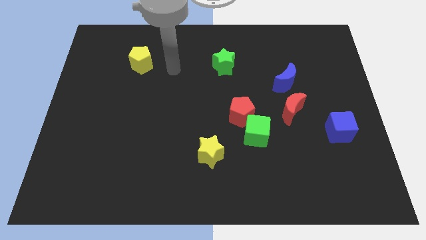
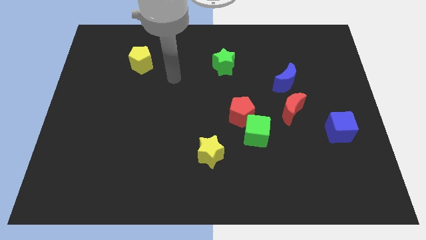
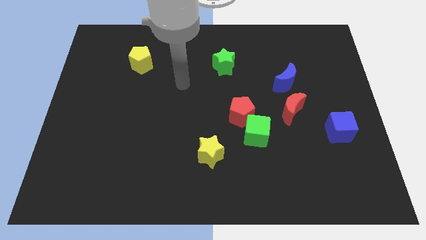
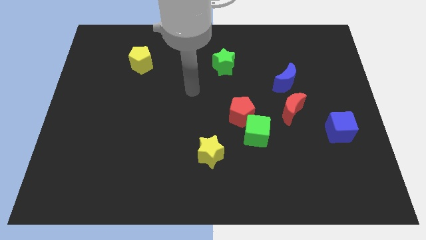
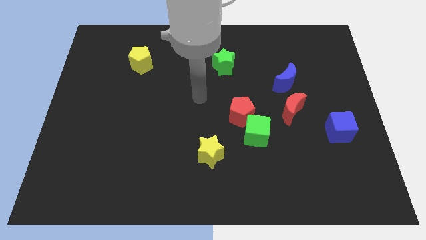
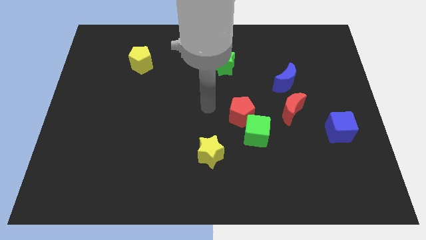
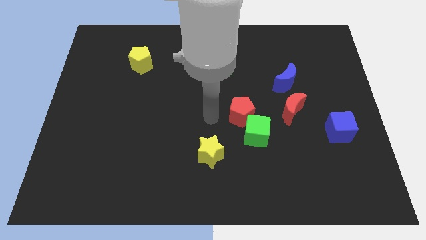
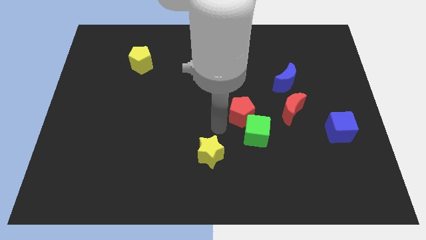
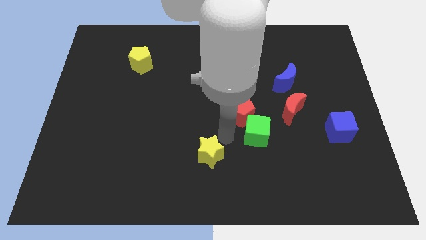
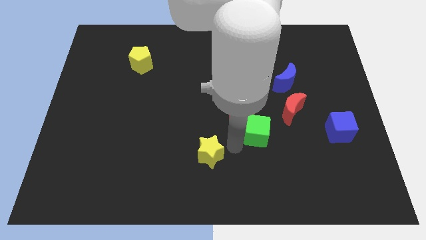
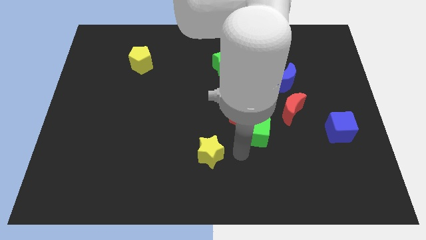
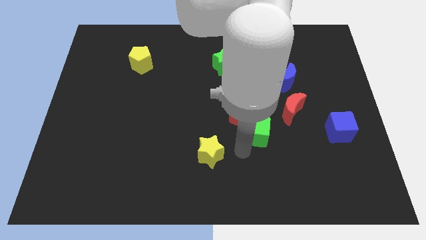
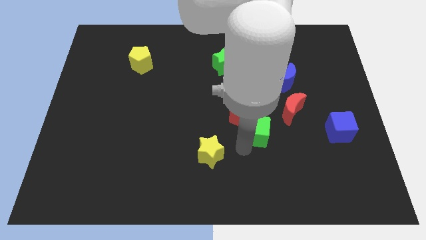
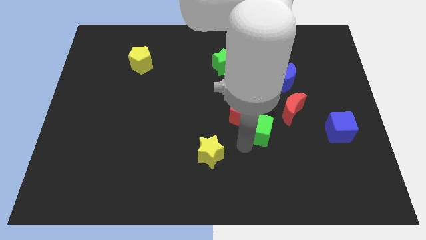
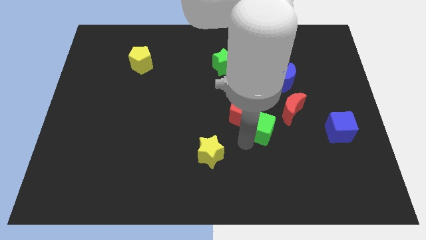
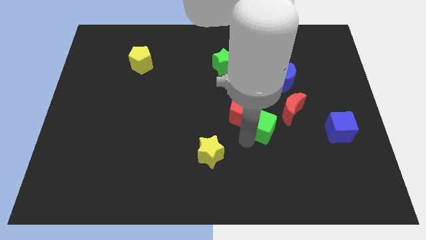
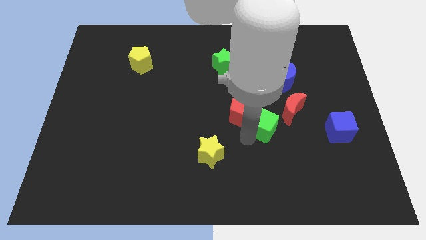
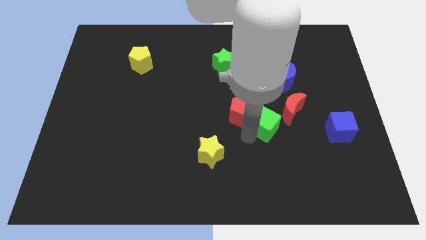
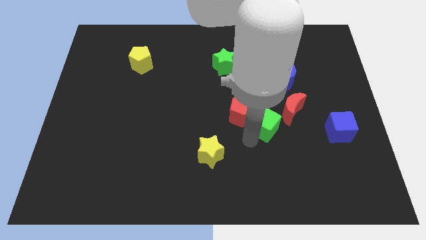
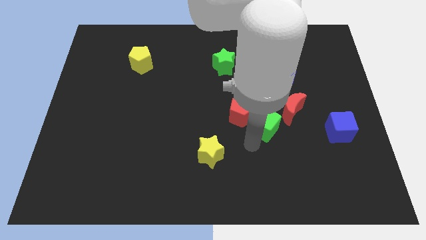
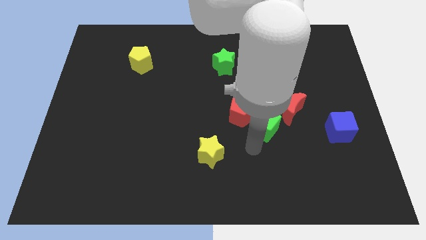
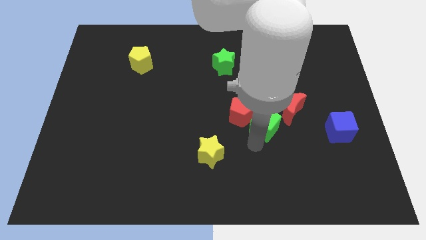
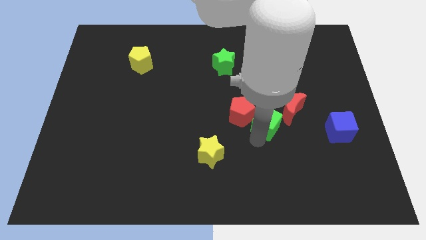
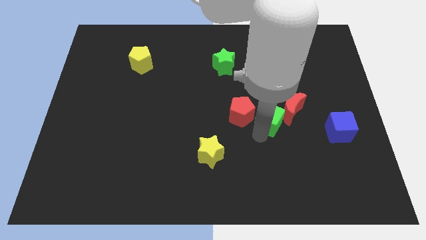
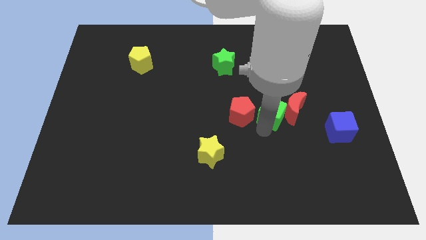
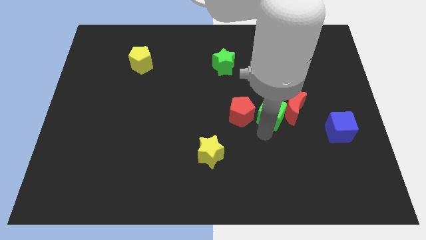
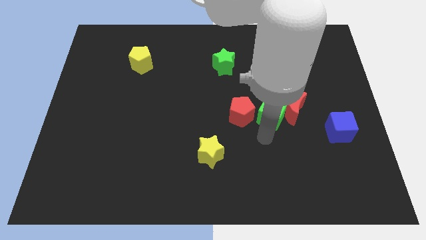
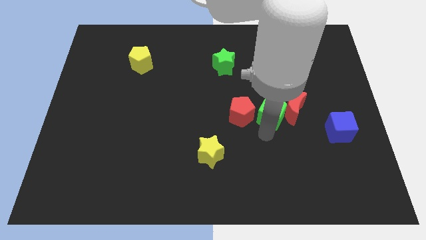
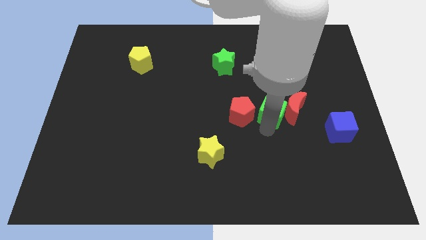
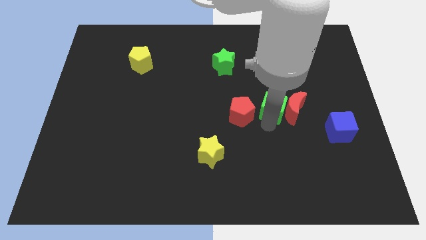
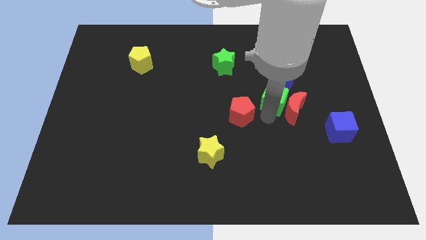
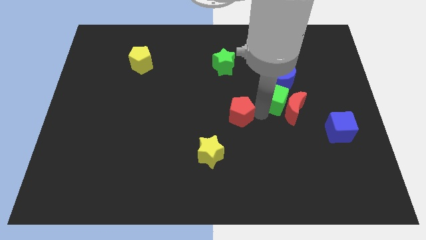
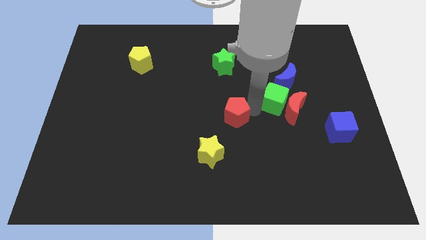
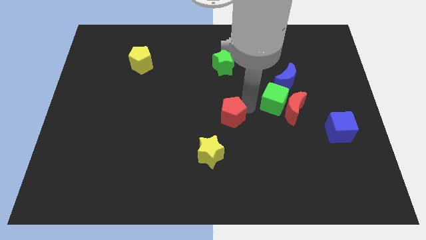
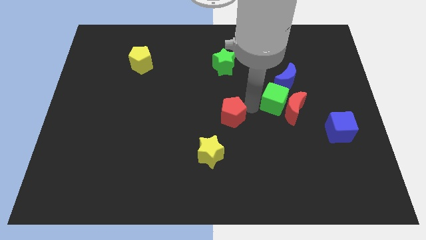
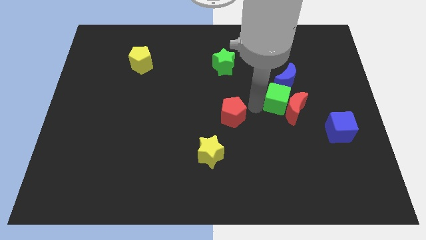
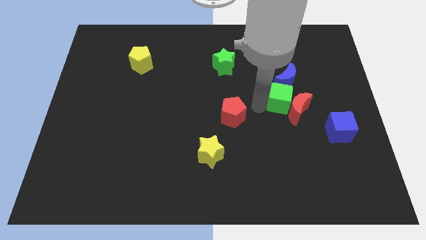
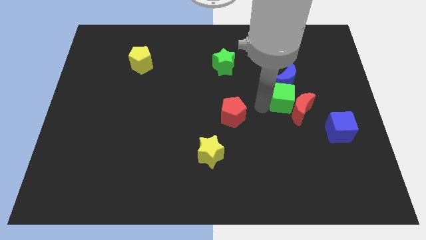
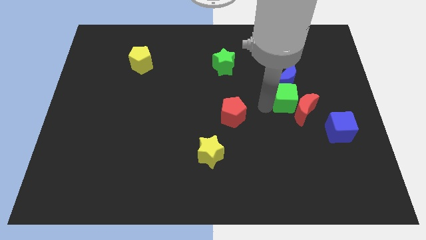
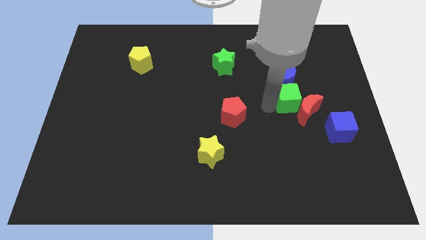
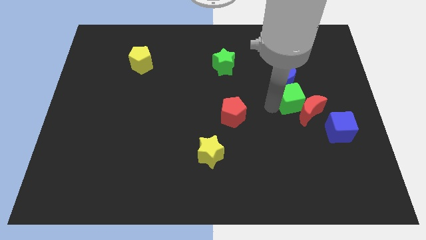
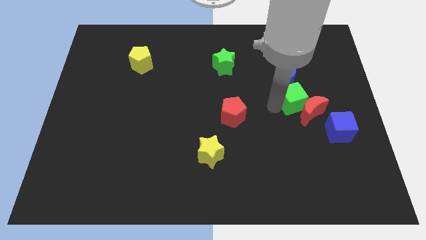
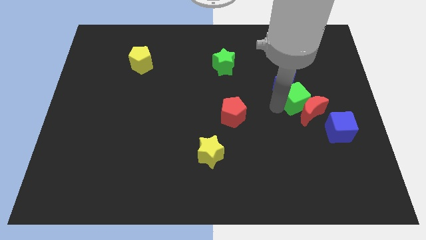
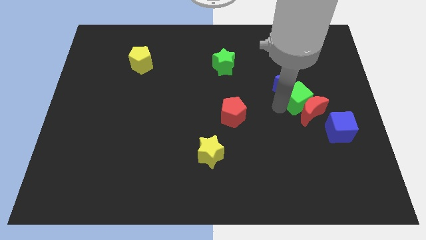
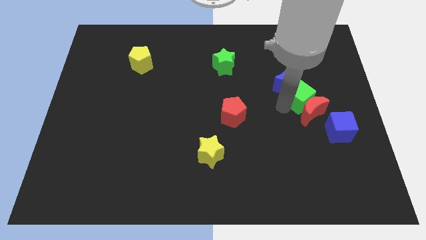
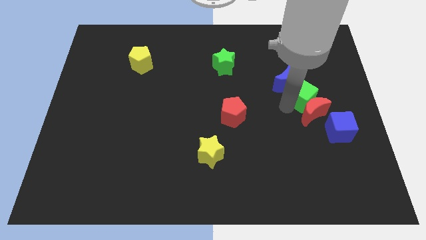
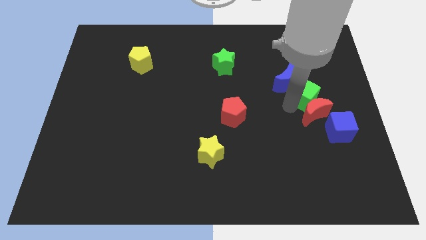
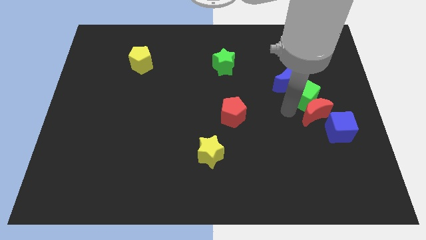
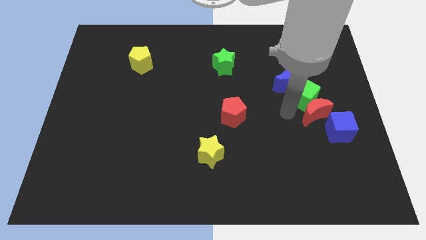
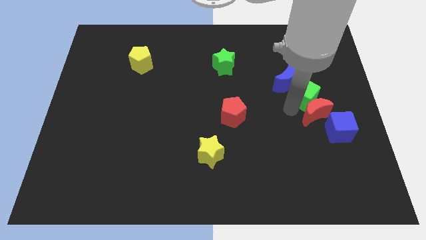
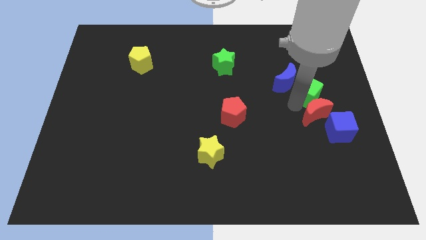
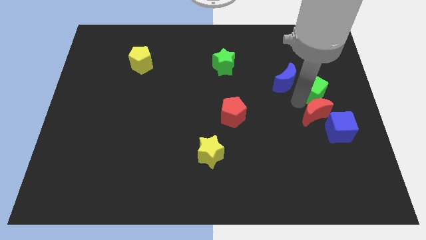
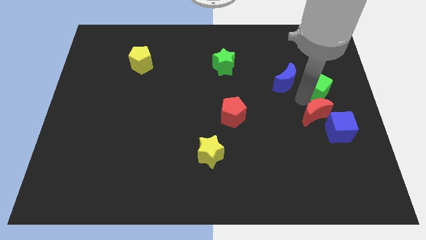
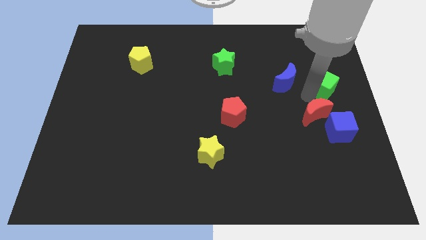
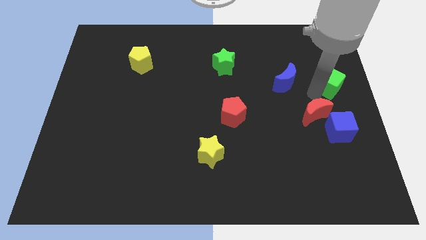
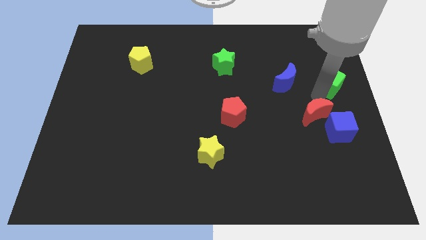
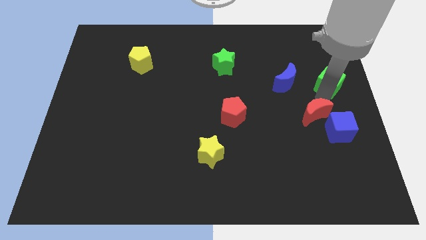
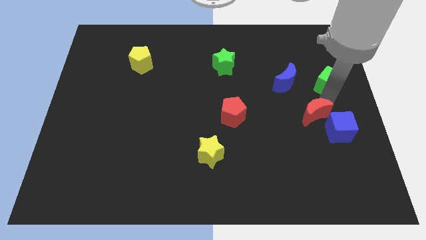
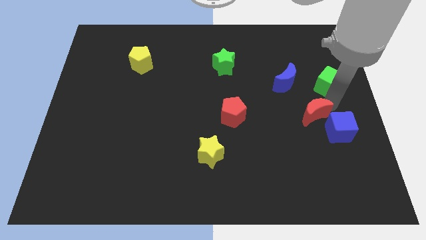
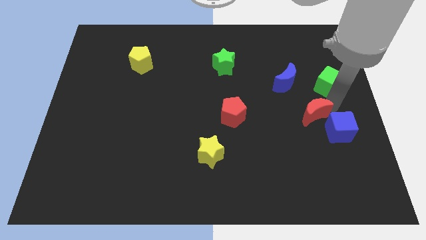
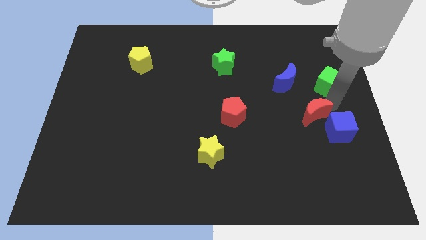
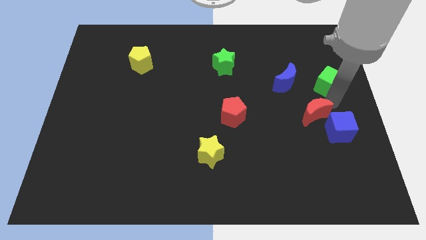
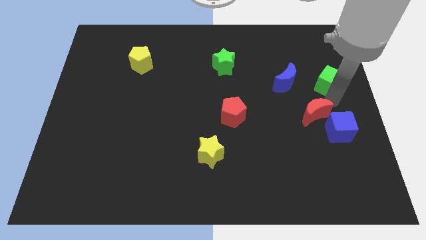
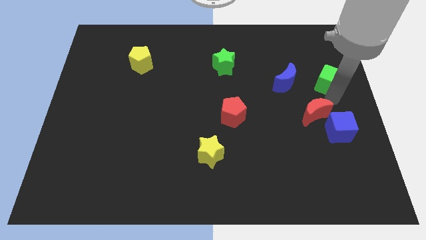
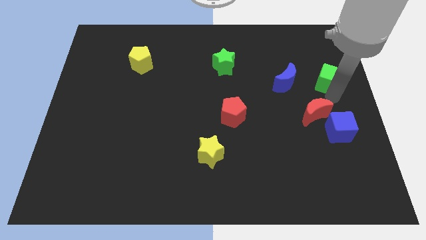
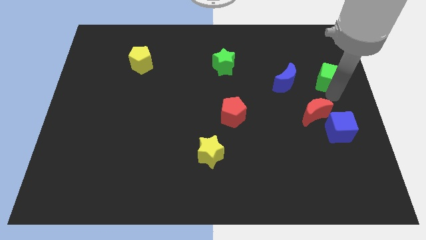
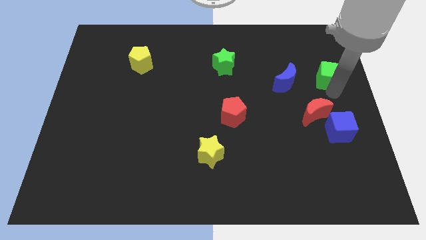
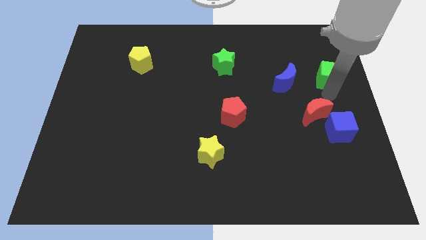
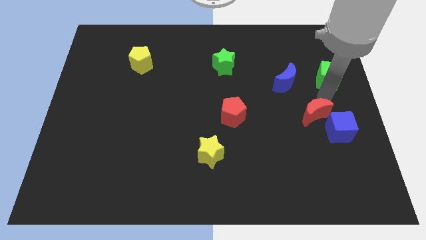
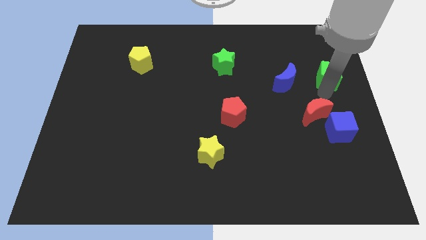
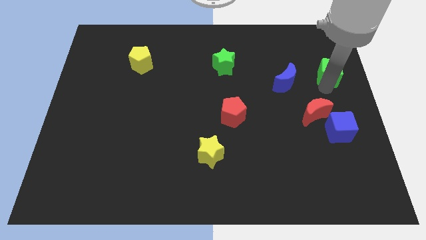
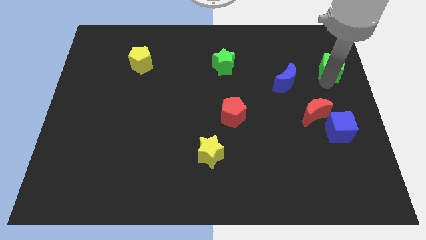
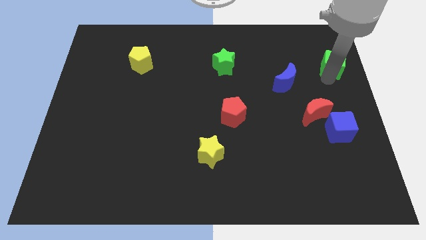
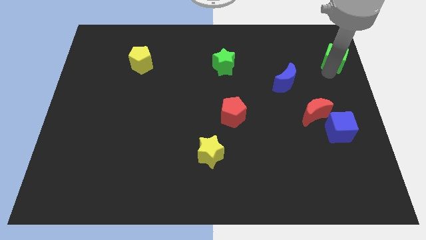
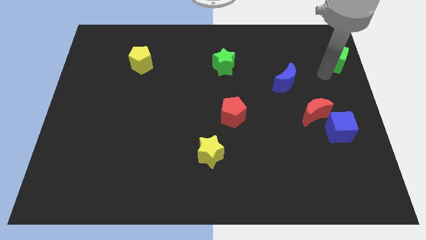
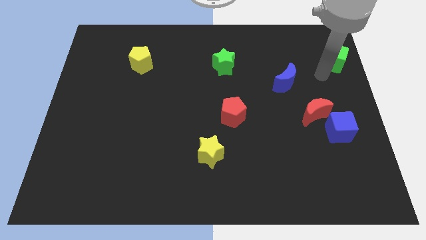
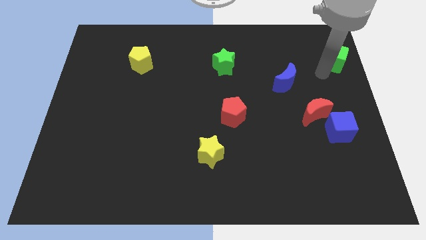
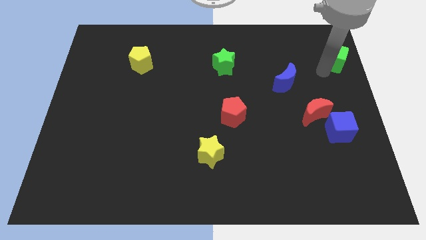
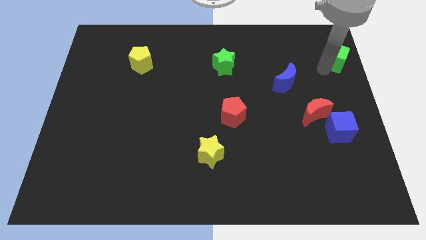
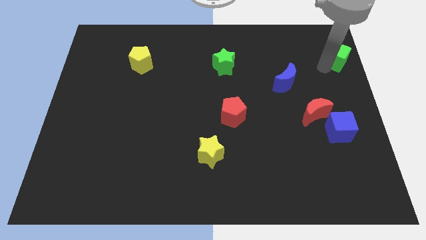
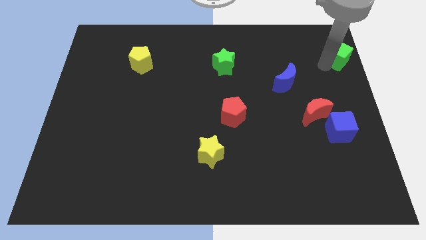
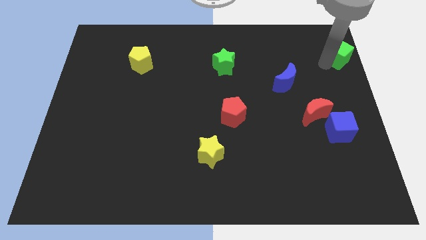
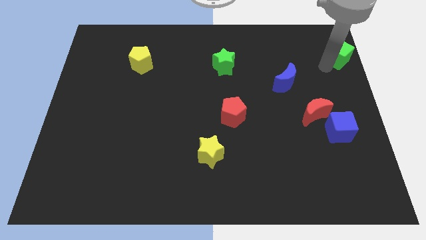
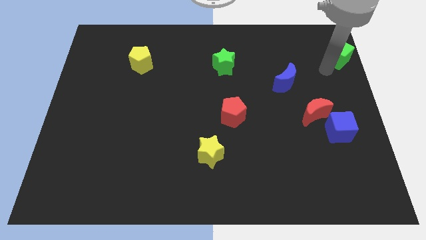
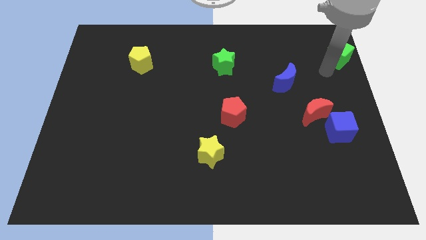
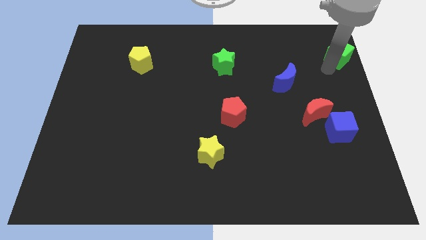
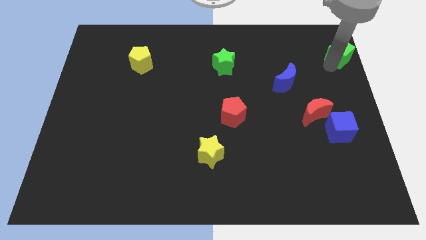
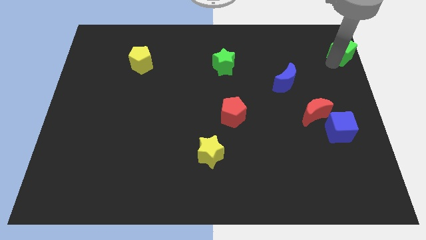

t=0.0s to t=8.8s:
move the green cube to the top right
